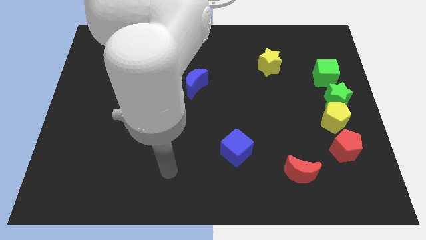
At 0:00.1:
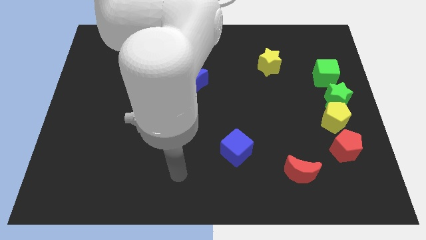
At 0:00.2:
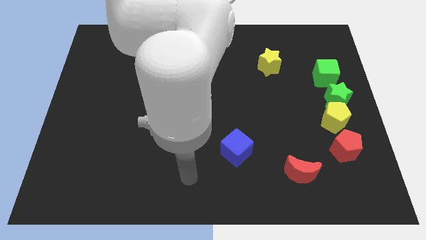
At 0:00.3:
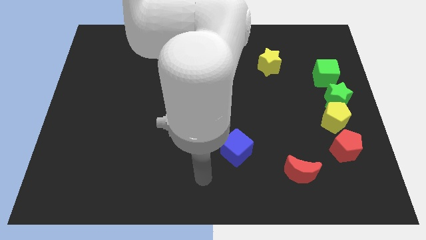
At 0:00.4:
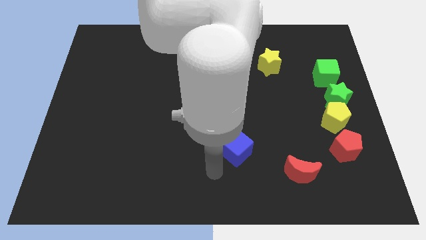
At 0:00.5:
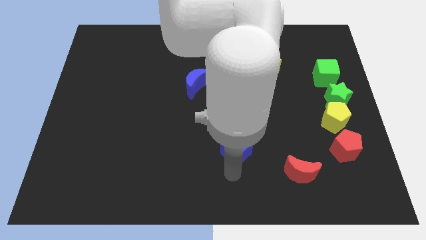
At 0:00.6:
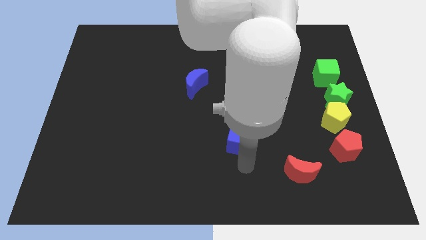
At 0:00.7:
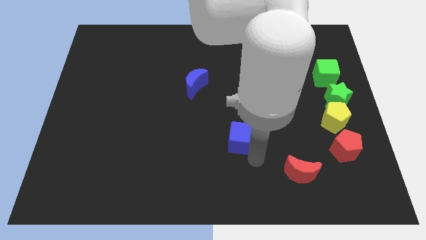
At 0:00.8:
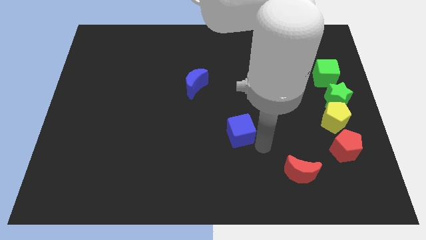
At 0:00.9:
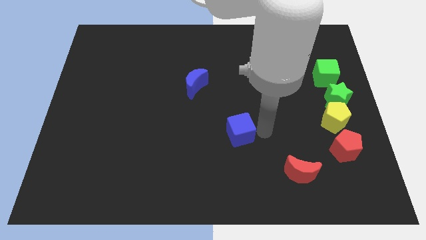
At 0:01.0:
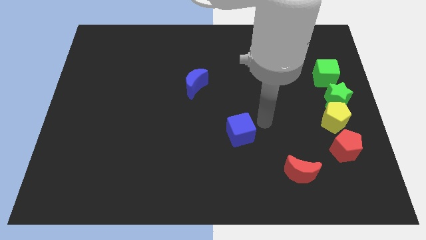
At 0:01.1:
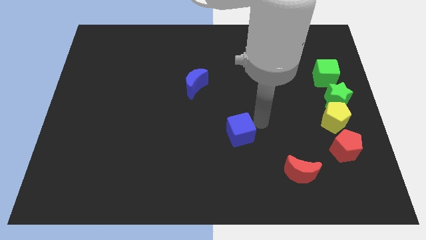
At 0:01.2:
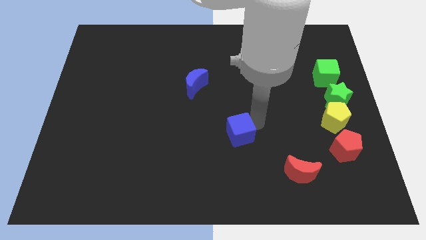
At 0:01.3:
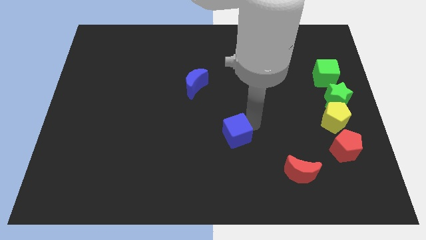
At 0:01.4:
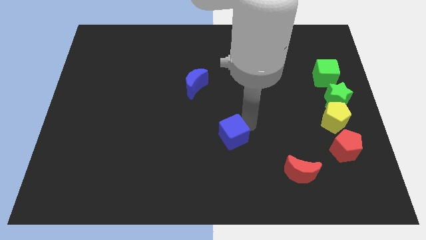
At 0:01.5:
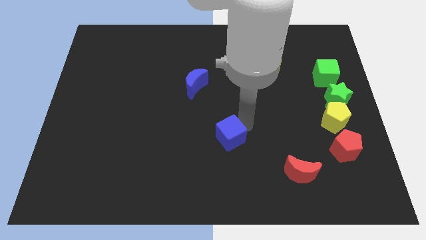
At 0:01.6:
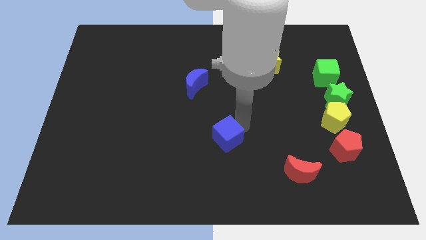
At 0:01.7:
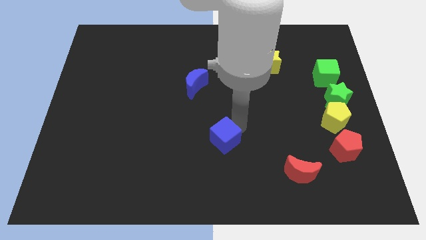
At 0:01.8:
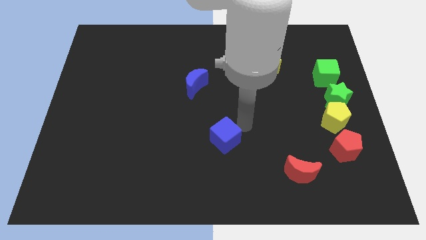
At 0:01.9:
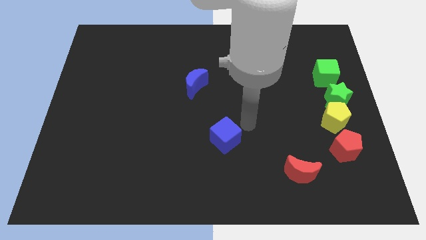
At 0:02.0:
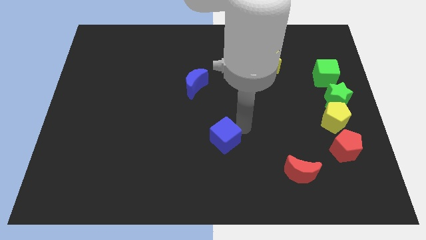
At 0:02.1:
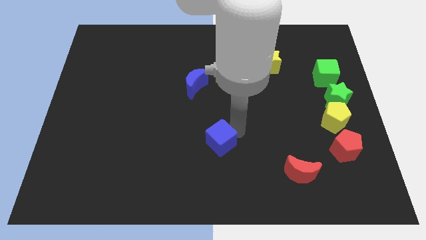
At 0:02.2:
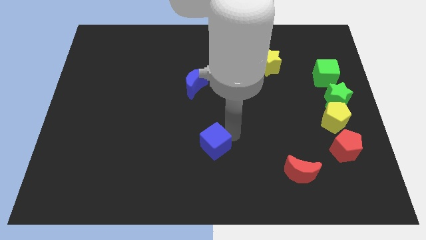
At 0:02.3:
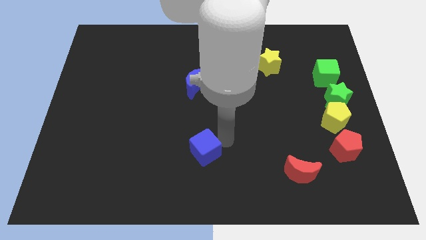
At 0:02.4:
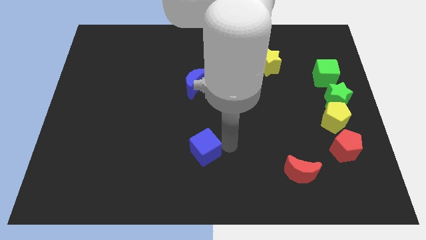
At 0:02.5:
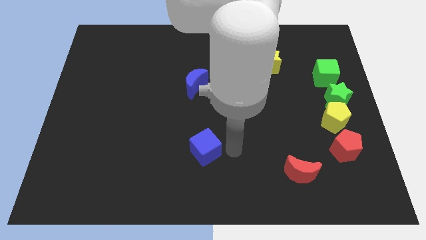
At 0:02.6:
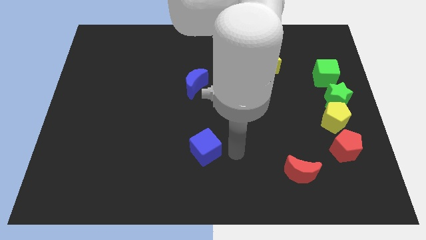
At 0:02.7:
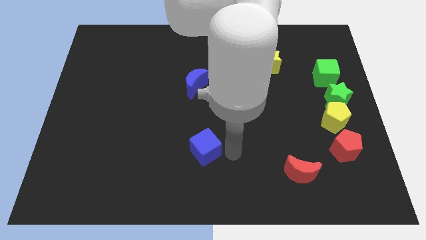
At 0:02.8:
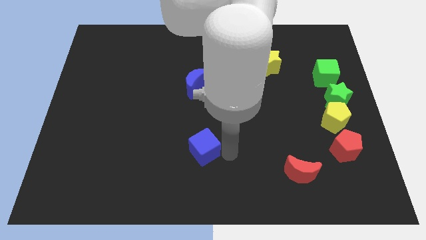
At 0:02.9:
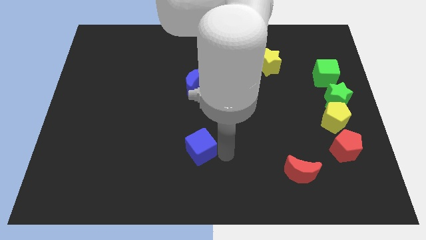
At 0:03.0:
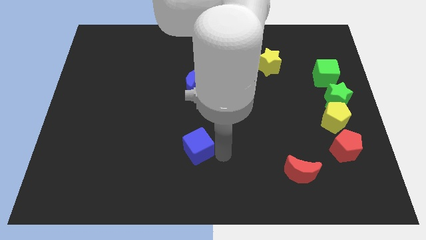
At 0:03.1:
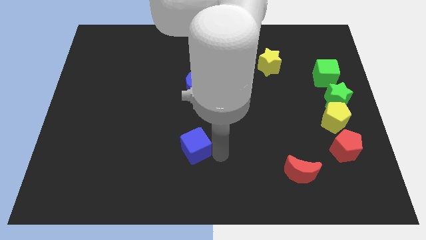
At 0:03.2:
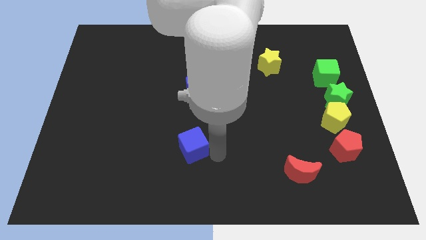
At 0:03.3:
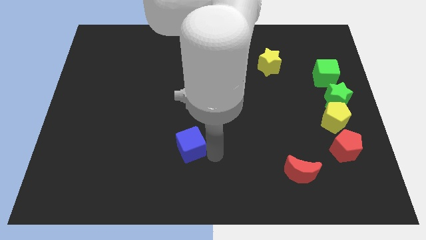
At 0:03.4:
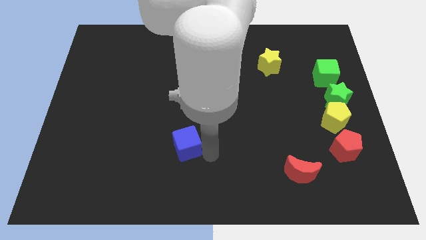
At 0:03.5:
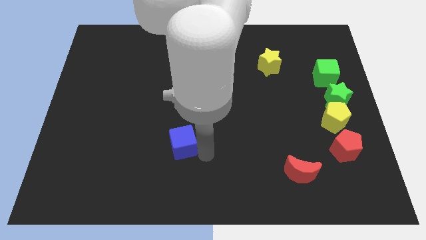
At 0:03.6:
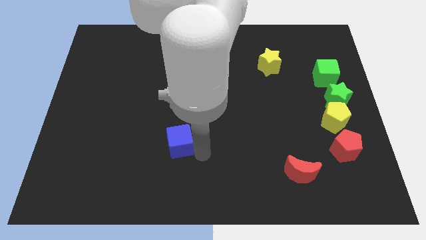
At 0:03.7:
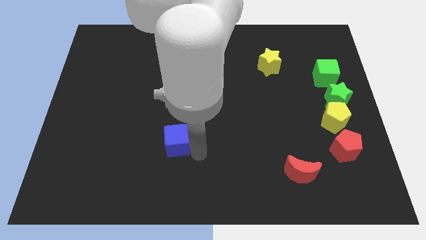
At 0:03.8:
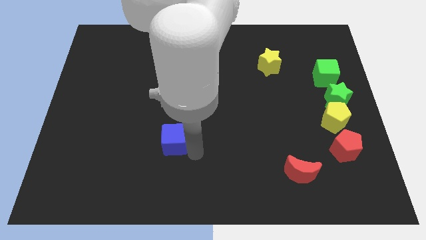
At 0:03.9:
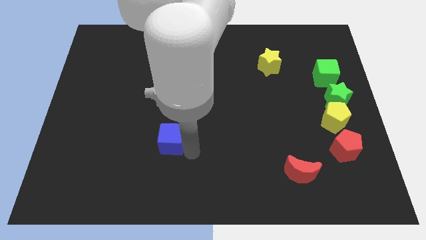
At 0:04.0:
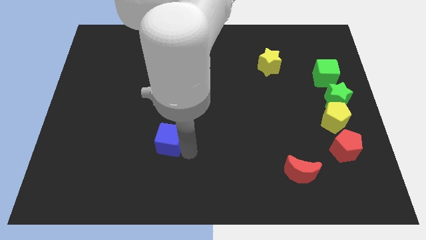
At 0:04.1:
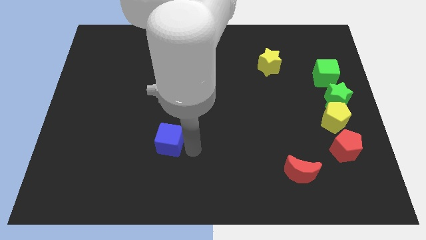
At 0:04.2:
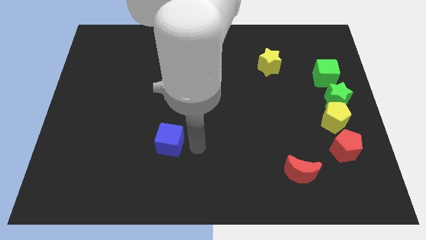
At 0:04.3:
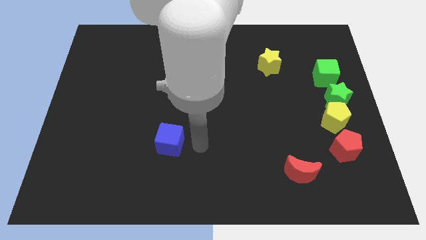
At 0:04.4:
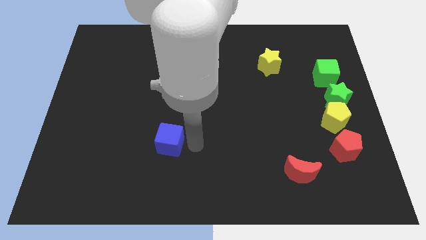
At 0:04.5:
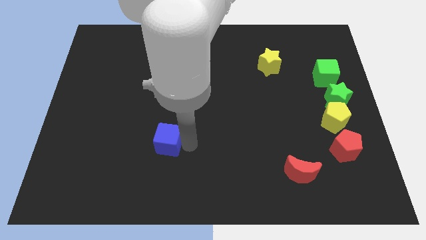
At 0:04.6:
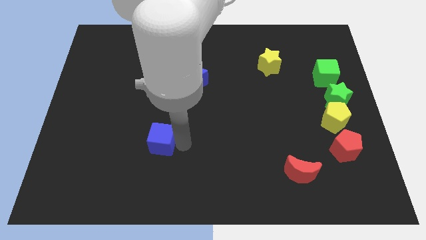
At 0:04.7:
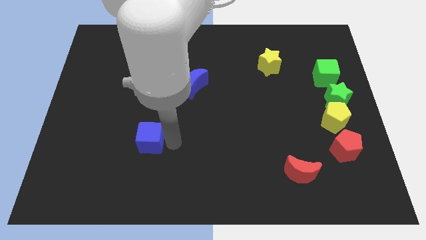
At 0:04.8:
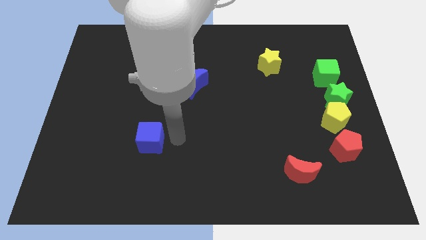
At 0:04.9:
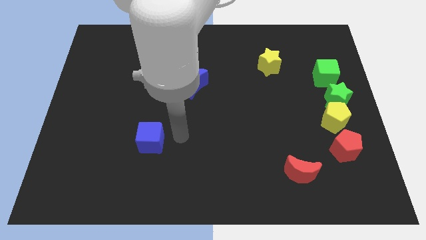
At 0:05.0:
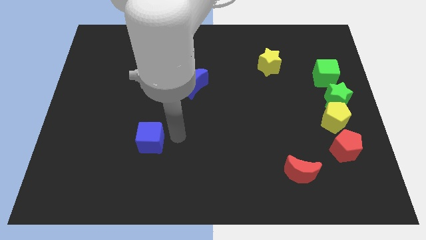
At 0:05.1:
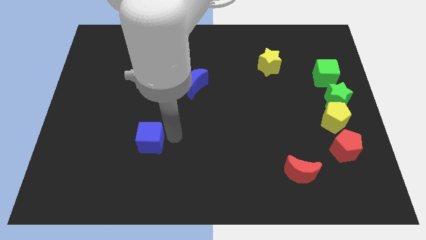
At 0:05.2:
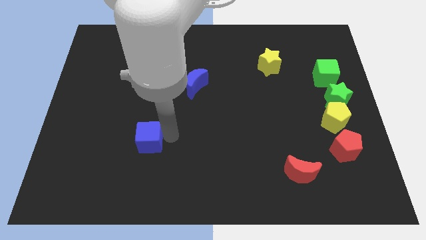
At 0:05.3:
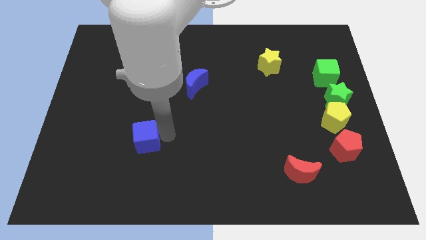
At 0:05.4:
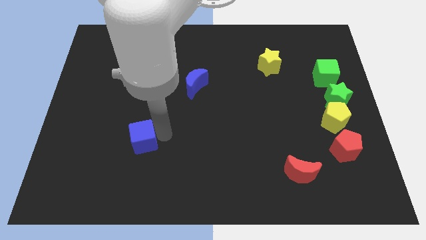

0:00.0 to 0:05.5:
push the blue cube left

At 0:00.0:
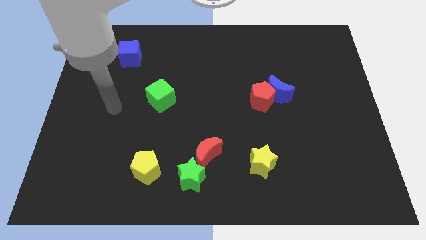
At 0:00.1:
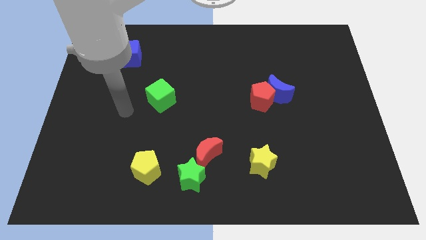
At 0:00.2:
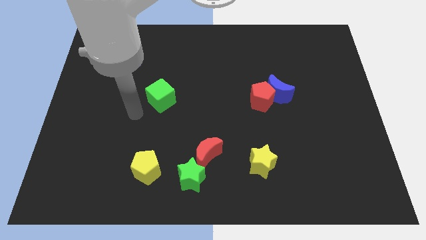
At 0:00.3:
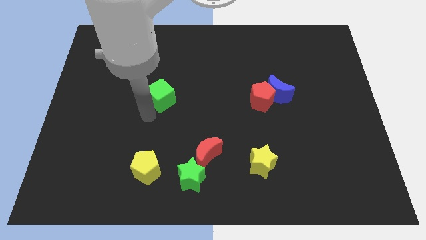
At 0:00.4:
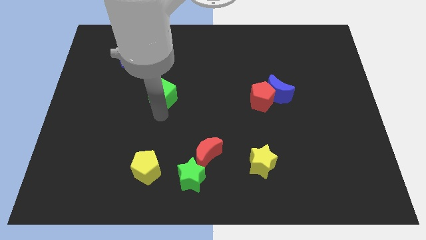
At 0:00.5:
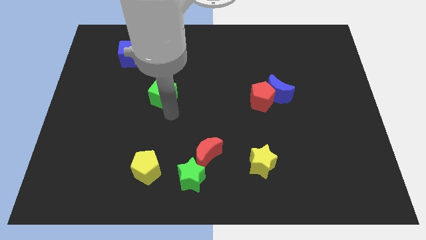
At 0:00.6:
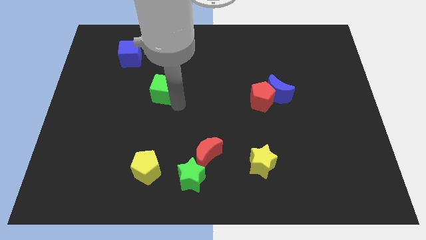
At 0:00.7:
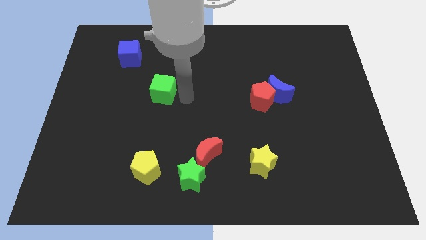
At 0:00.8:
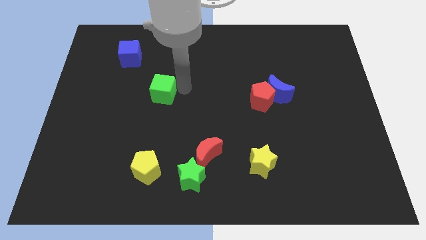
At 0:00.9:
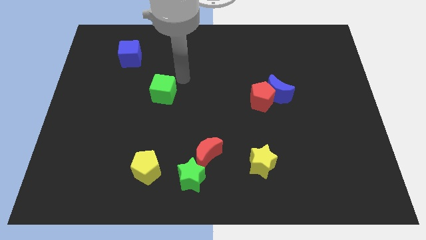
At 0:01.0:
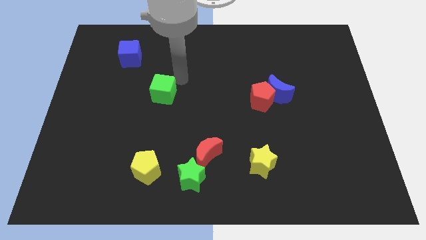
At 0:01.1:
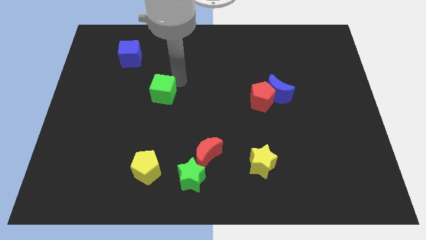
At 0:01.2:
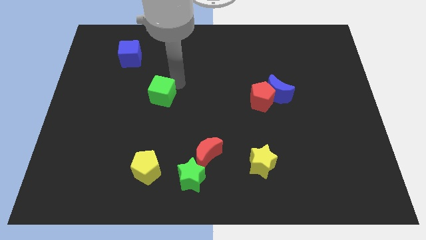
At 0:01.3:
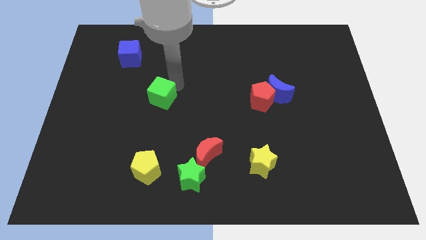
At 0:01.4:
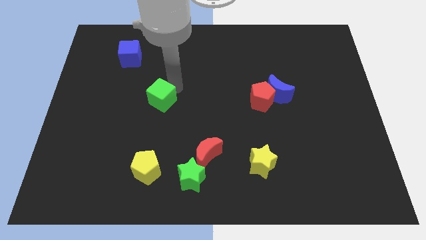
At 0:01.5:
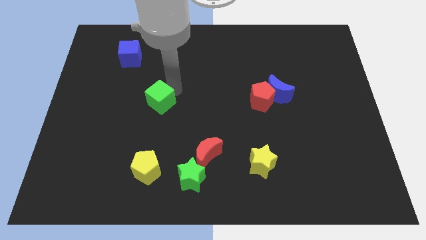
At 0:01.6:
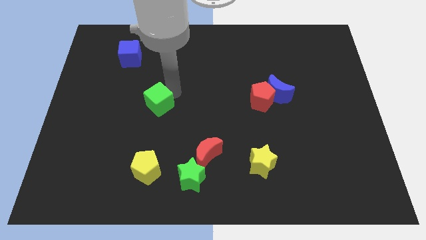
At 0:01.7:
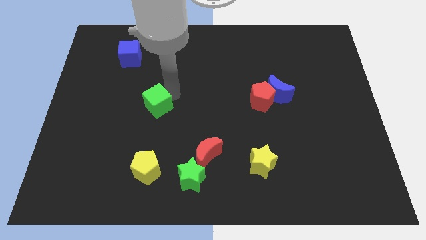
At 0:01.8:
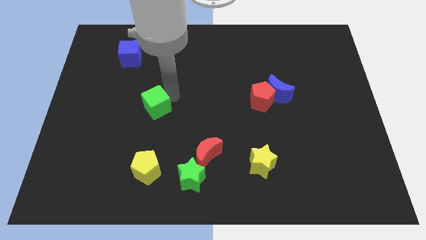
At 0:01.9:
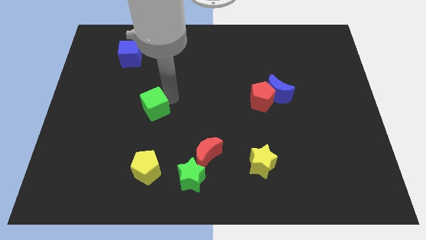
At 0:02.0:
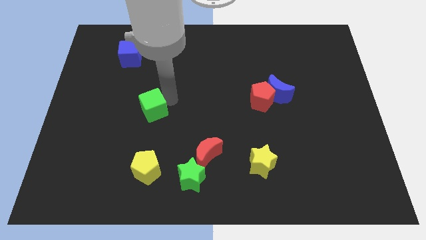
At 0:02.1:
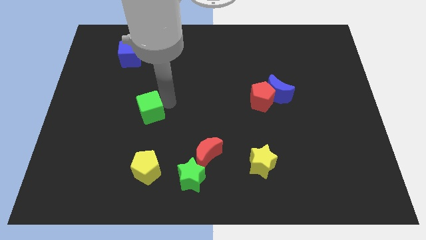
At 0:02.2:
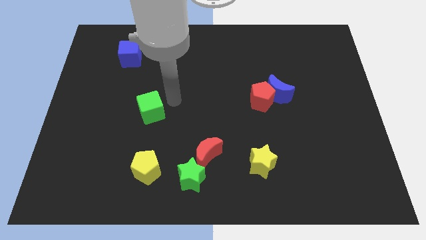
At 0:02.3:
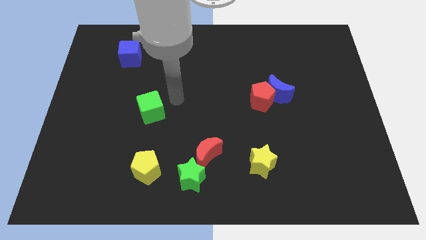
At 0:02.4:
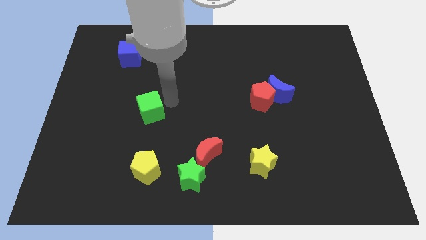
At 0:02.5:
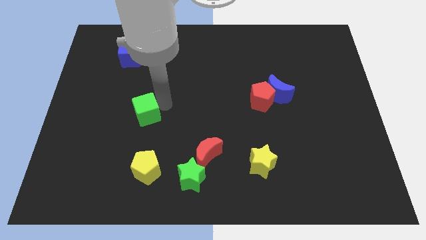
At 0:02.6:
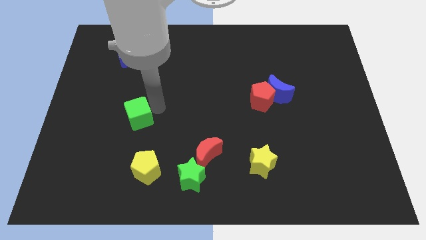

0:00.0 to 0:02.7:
slightly move the green cube downwards and then left

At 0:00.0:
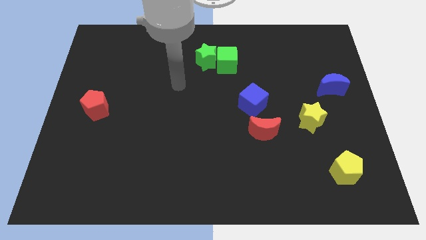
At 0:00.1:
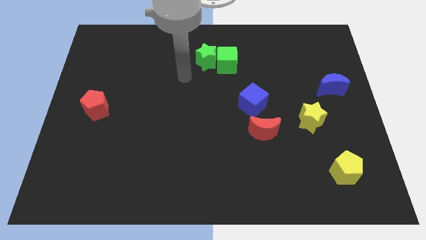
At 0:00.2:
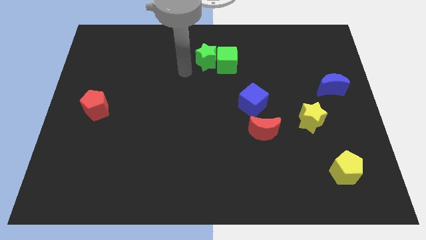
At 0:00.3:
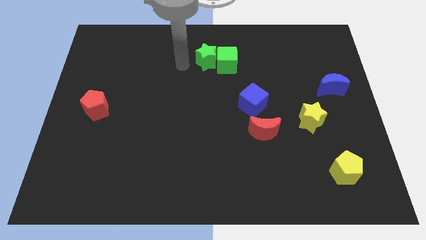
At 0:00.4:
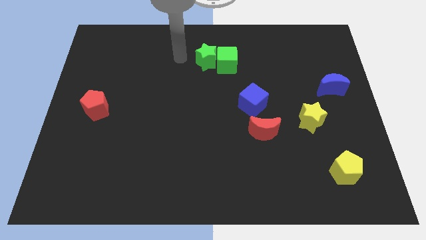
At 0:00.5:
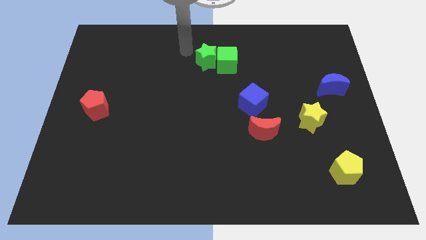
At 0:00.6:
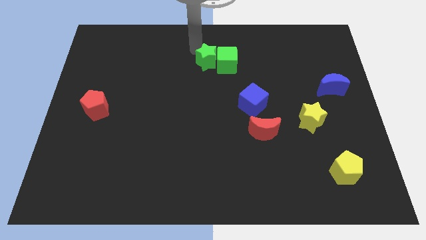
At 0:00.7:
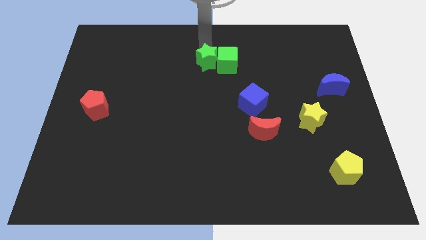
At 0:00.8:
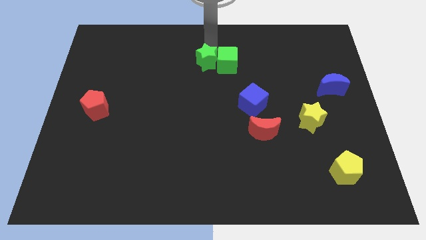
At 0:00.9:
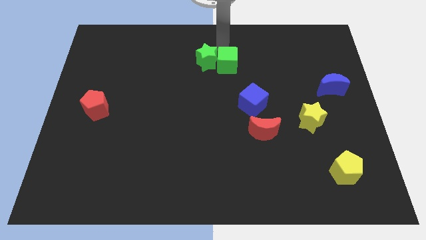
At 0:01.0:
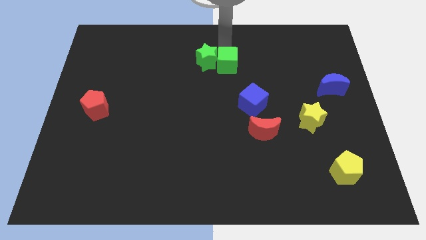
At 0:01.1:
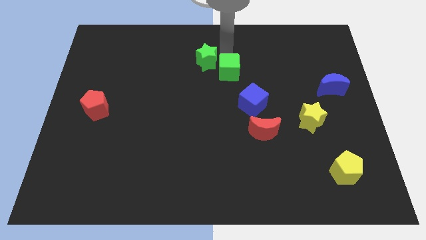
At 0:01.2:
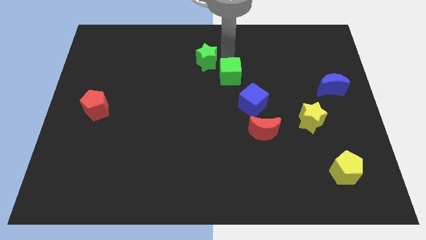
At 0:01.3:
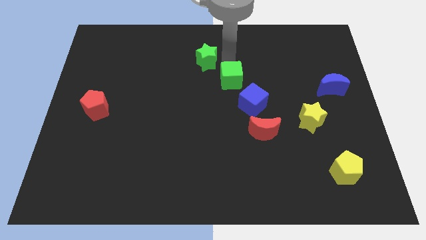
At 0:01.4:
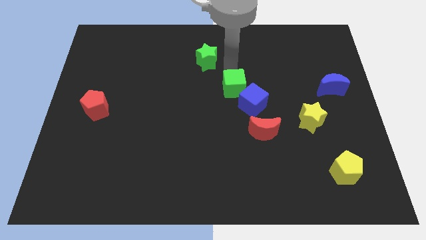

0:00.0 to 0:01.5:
push the green cube a little bit down
